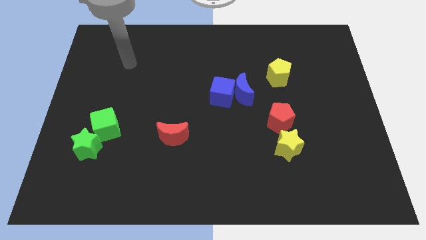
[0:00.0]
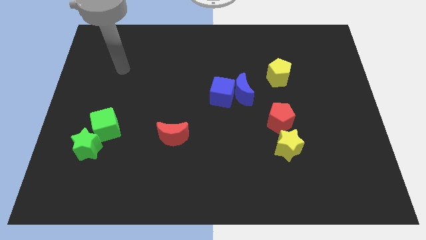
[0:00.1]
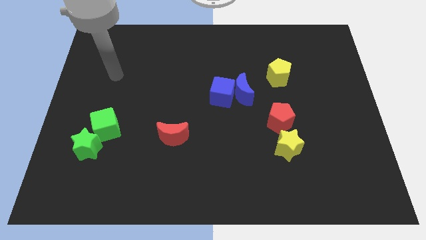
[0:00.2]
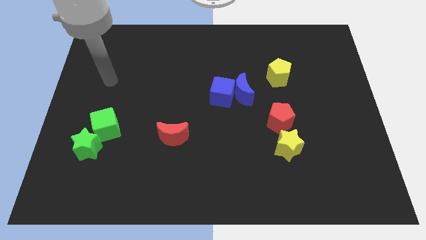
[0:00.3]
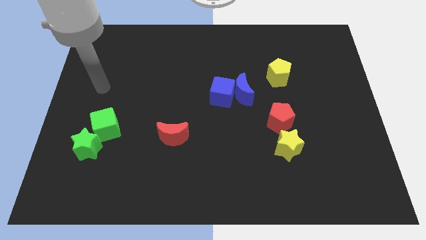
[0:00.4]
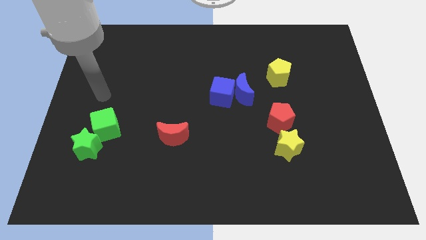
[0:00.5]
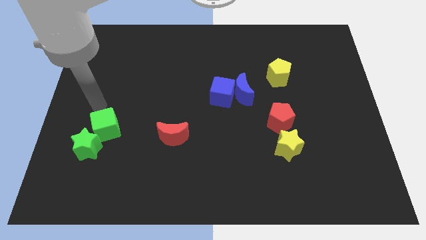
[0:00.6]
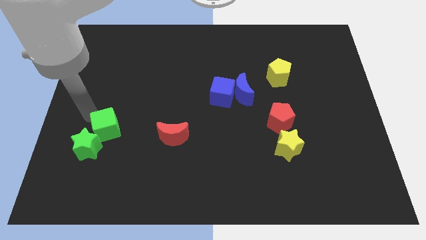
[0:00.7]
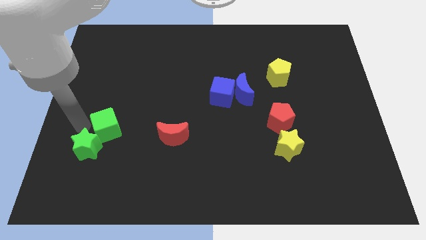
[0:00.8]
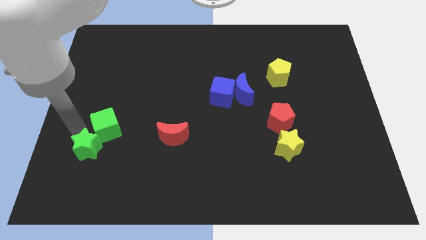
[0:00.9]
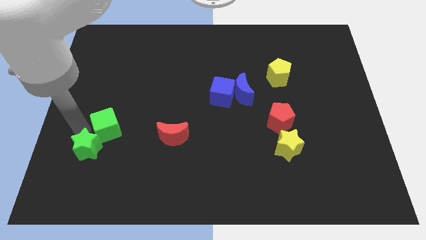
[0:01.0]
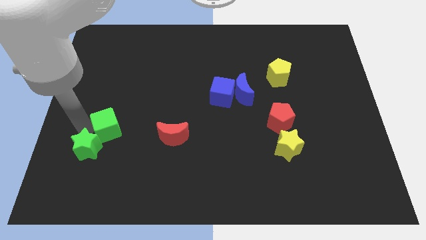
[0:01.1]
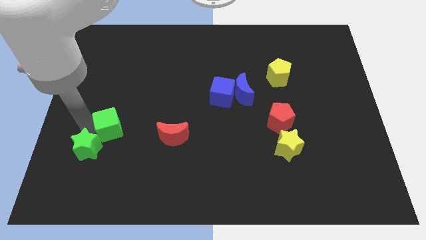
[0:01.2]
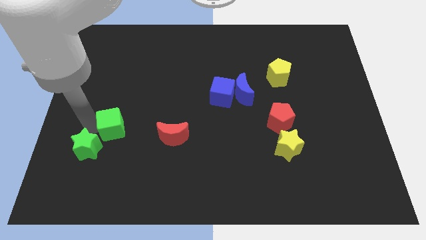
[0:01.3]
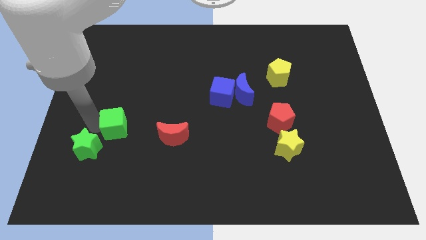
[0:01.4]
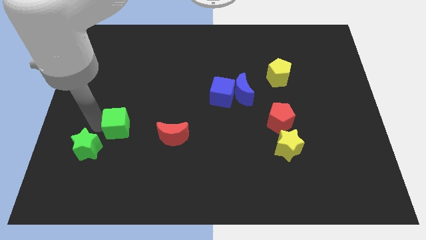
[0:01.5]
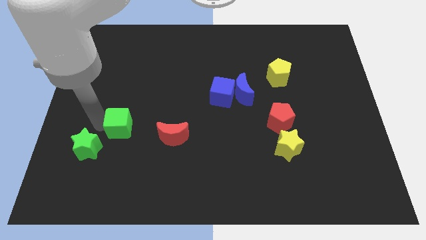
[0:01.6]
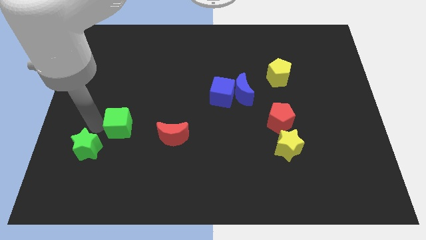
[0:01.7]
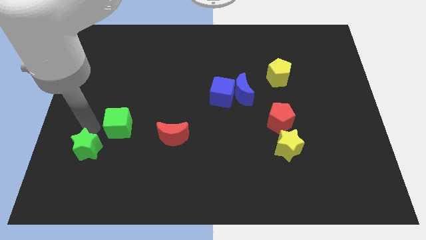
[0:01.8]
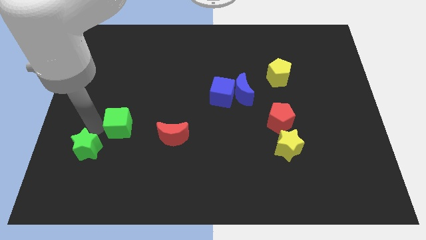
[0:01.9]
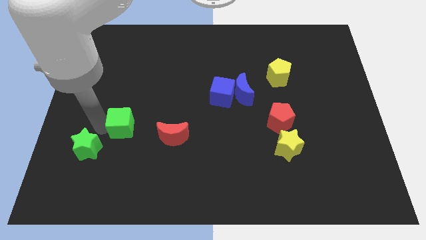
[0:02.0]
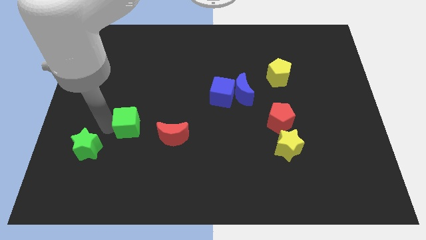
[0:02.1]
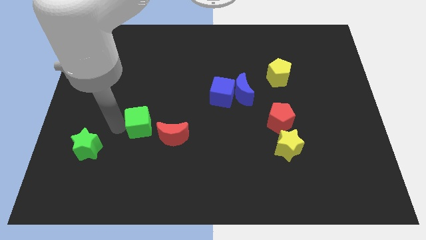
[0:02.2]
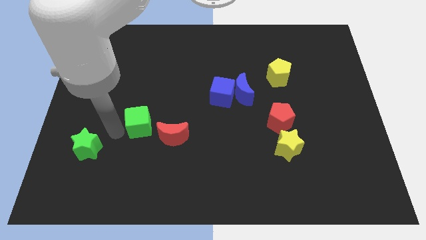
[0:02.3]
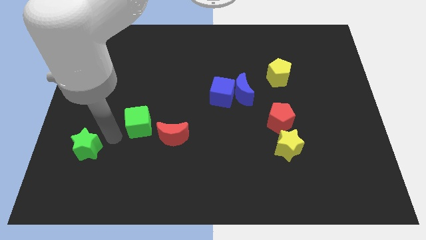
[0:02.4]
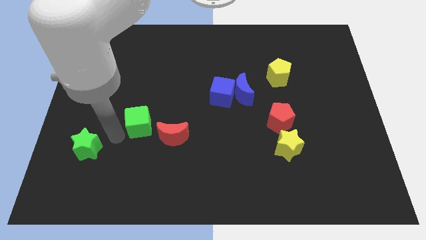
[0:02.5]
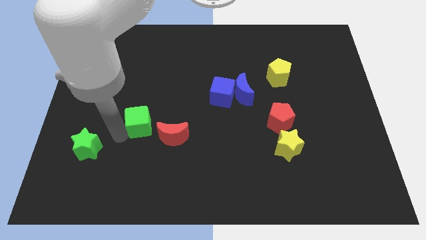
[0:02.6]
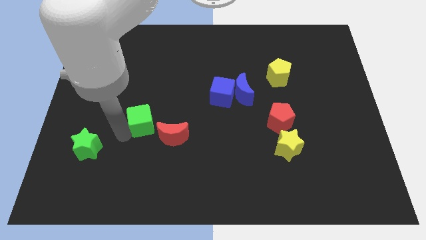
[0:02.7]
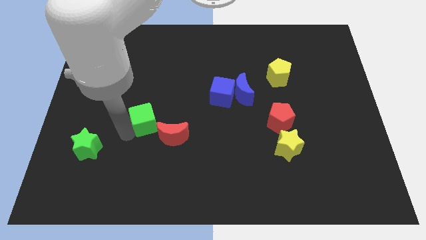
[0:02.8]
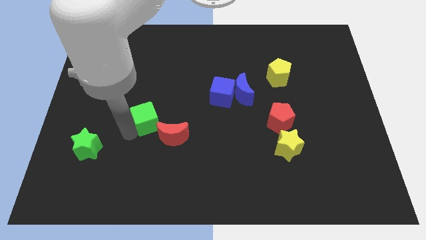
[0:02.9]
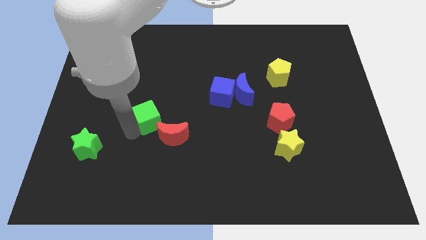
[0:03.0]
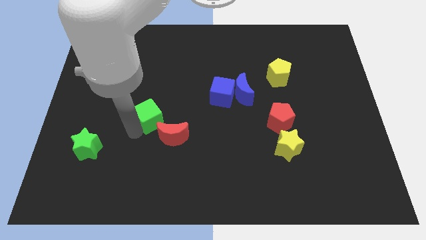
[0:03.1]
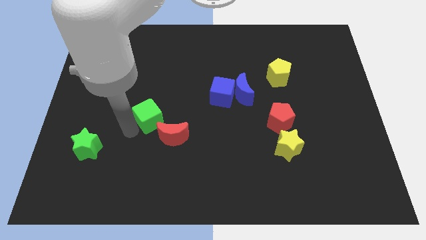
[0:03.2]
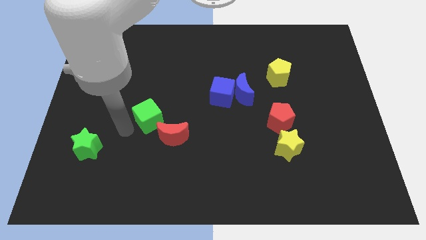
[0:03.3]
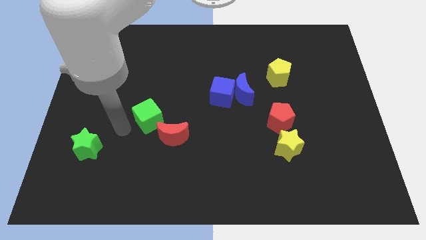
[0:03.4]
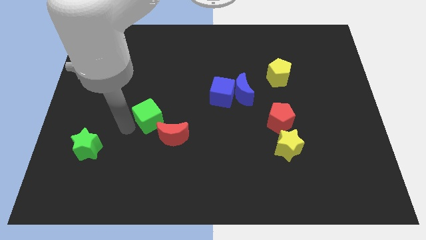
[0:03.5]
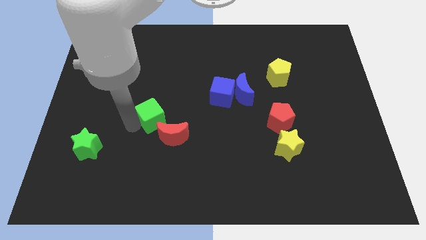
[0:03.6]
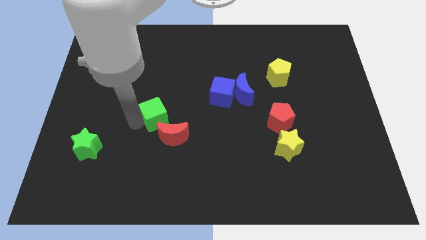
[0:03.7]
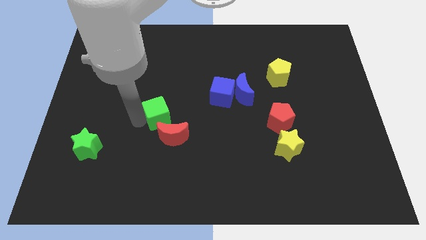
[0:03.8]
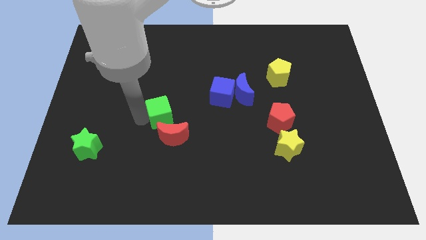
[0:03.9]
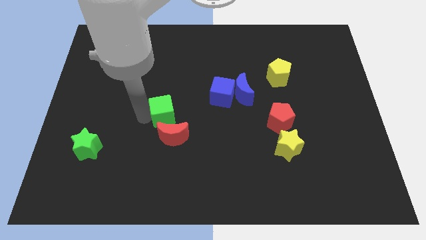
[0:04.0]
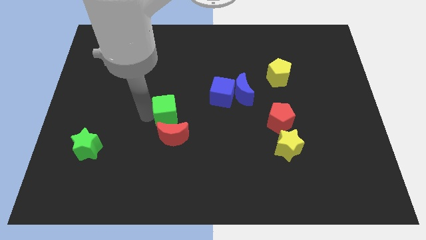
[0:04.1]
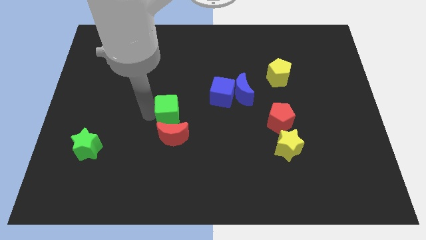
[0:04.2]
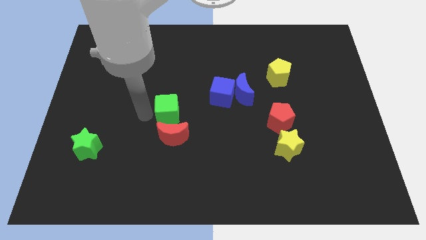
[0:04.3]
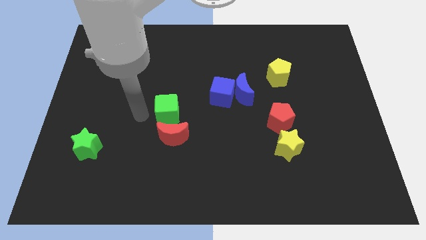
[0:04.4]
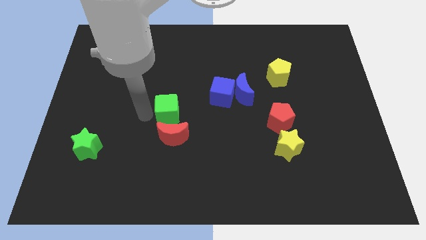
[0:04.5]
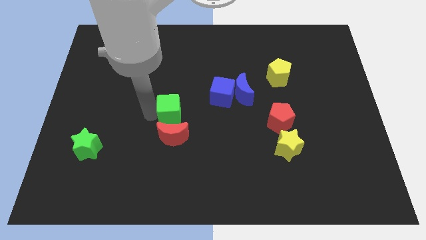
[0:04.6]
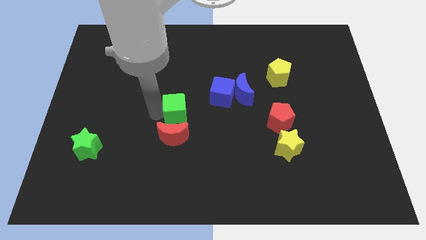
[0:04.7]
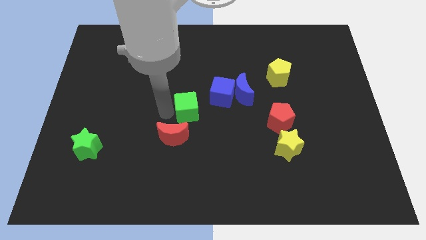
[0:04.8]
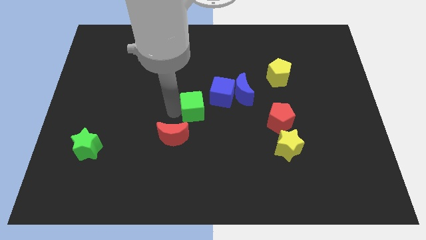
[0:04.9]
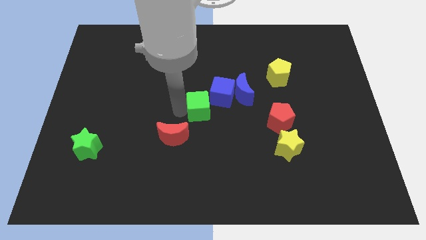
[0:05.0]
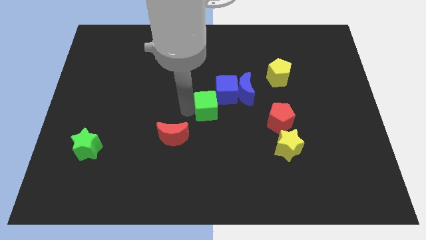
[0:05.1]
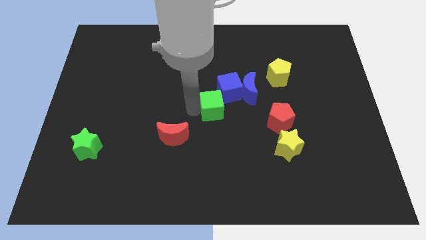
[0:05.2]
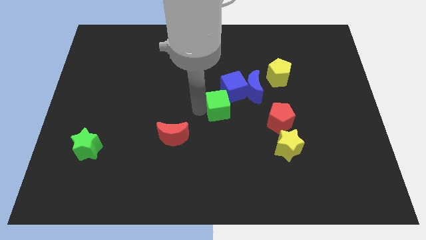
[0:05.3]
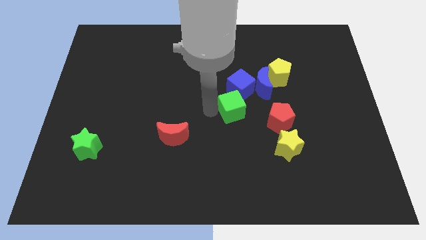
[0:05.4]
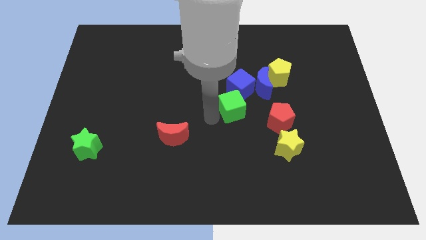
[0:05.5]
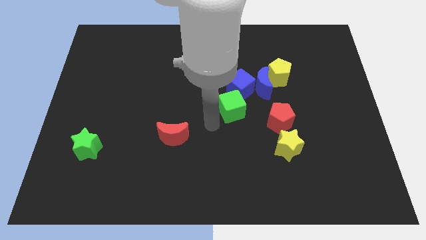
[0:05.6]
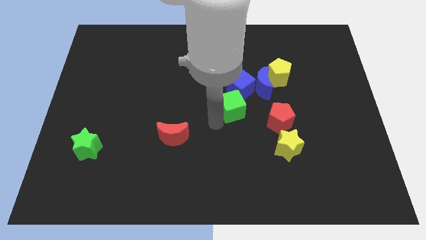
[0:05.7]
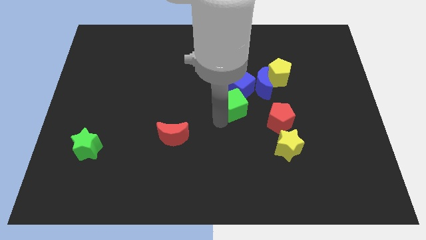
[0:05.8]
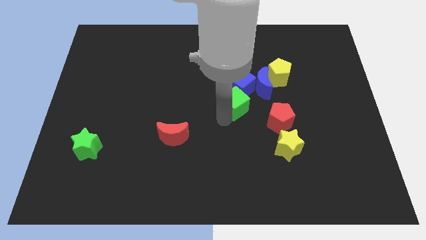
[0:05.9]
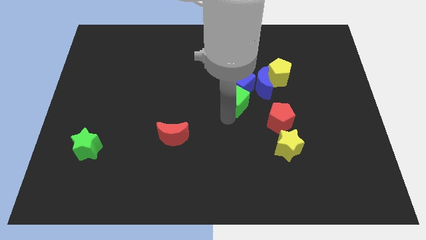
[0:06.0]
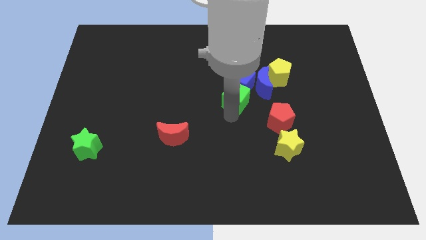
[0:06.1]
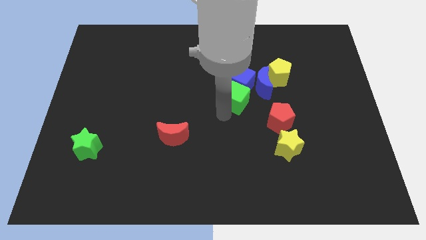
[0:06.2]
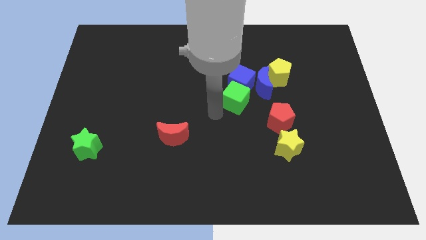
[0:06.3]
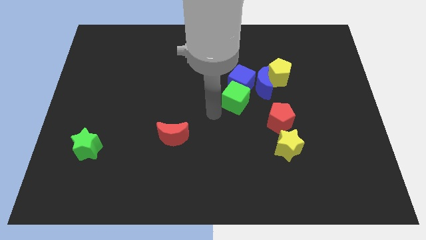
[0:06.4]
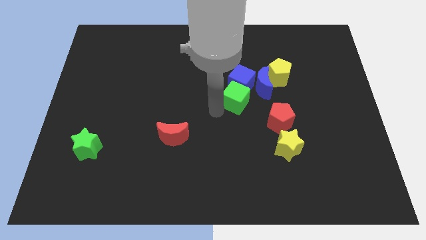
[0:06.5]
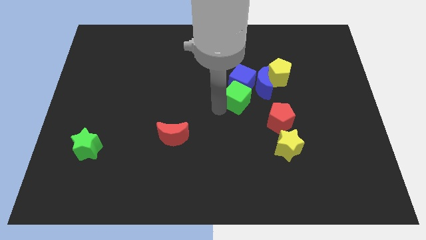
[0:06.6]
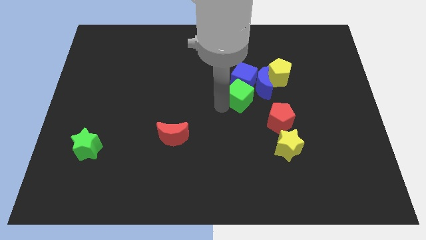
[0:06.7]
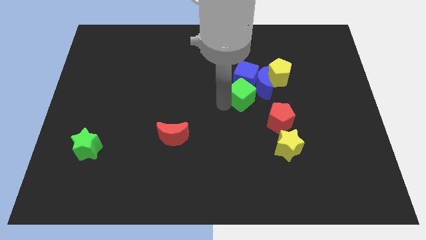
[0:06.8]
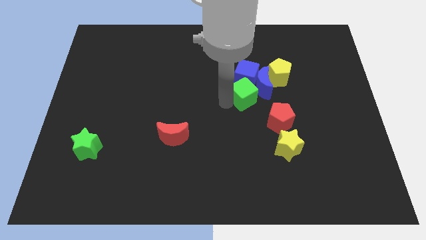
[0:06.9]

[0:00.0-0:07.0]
put the green cube next to the blue moon

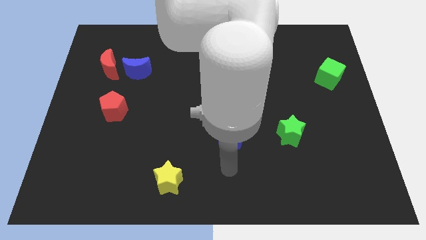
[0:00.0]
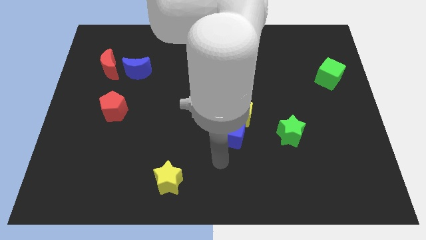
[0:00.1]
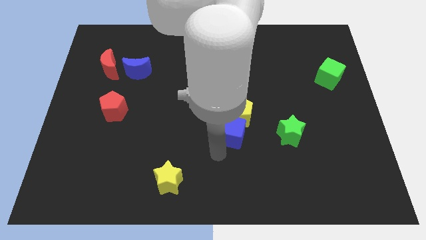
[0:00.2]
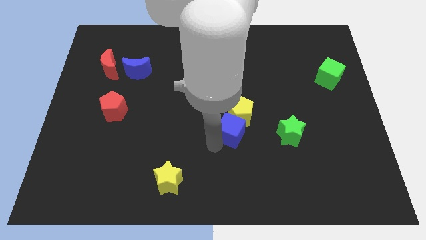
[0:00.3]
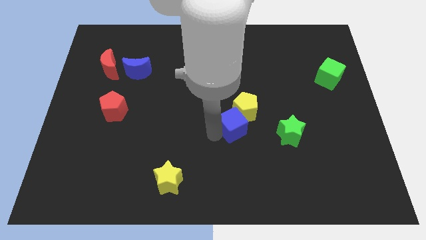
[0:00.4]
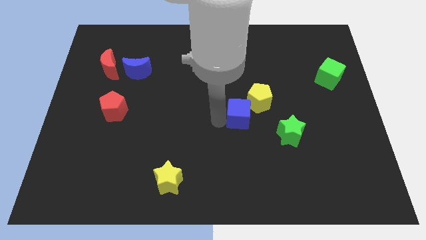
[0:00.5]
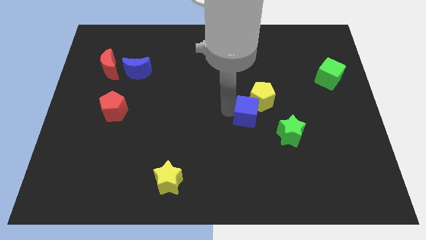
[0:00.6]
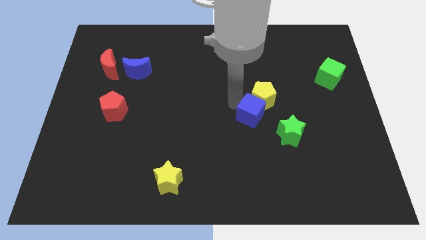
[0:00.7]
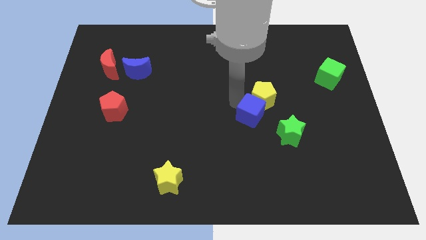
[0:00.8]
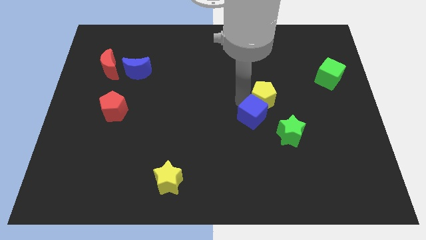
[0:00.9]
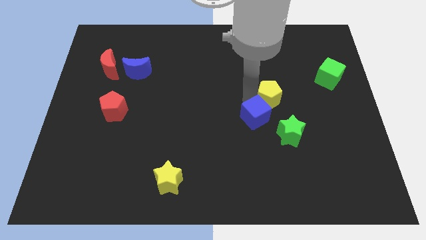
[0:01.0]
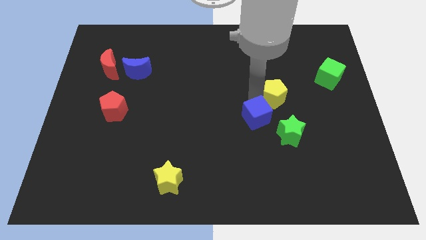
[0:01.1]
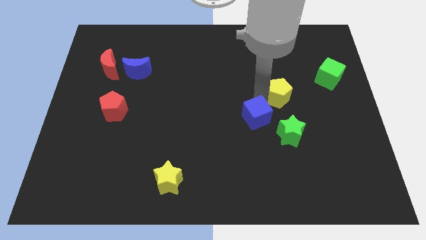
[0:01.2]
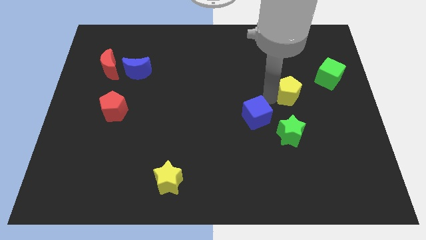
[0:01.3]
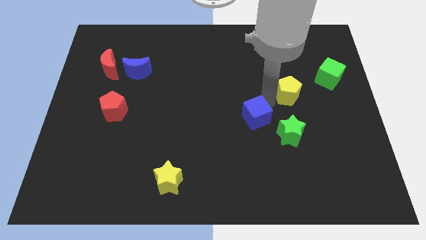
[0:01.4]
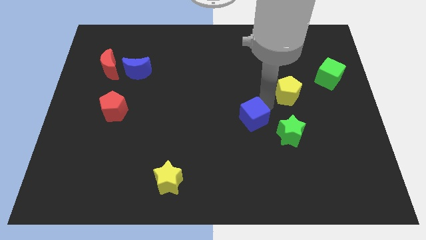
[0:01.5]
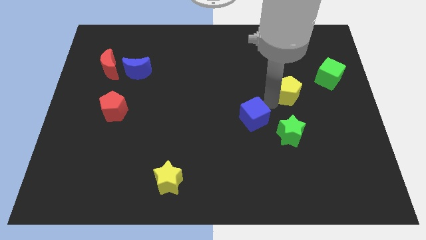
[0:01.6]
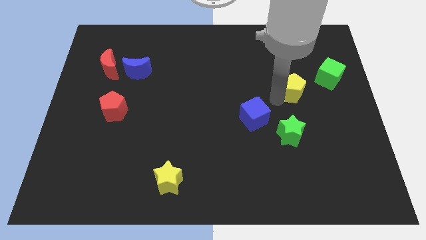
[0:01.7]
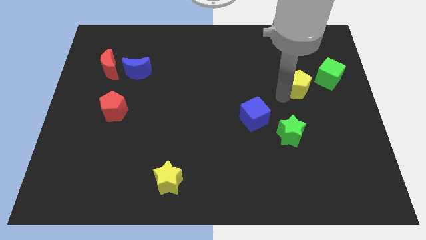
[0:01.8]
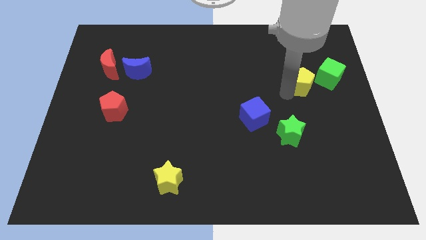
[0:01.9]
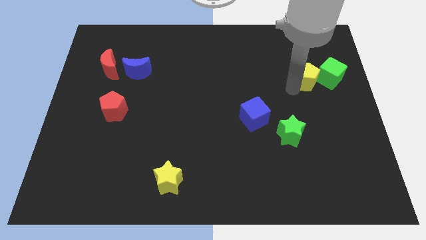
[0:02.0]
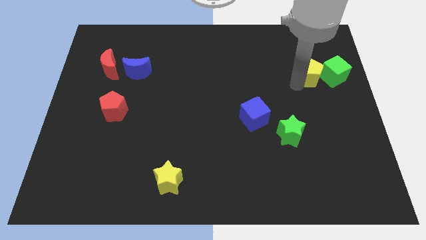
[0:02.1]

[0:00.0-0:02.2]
move the yellow pentagon towards the green cube
